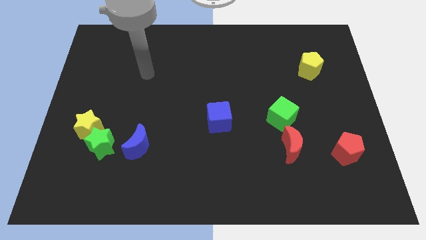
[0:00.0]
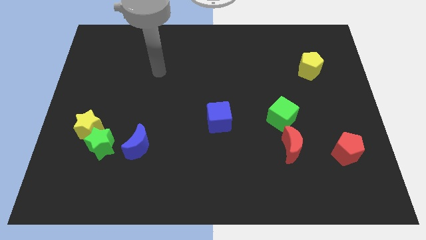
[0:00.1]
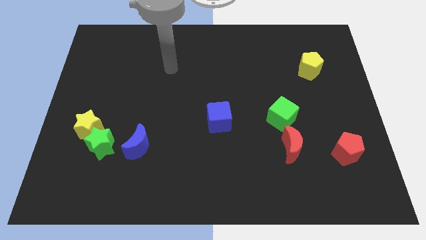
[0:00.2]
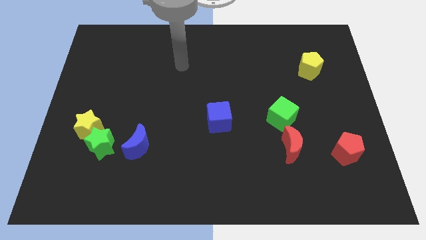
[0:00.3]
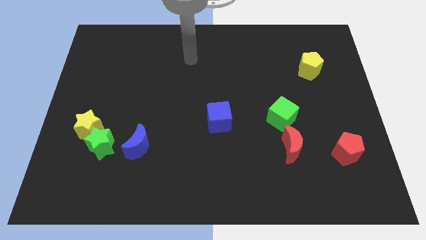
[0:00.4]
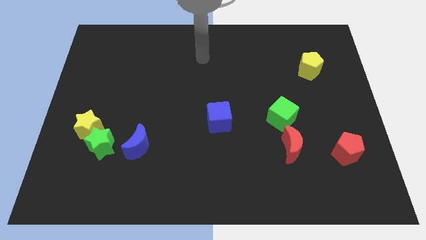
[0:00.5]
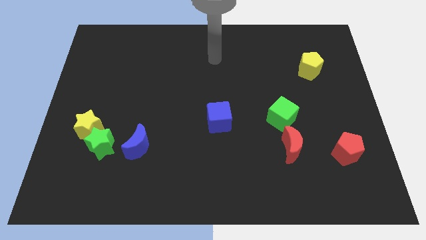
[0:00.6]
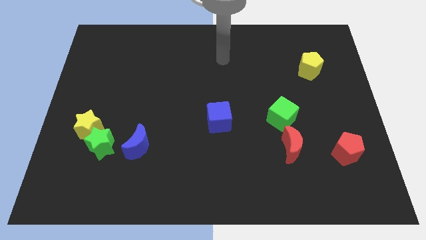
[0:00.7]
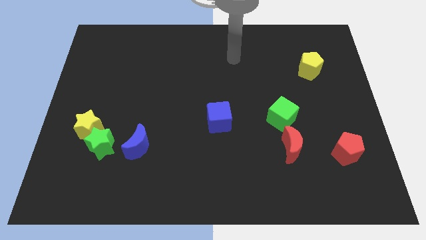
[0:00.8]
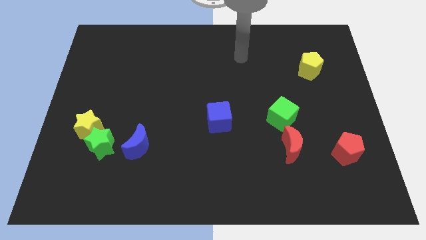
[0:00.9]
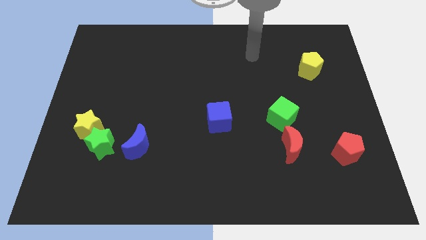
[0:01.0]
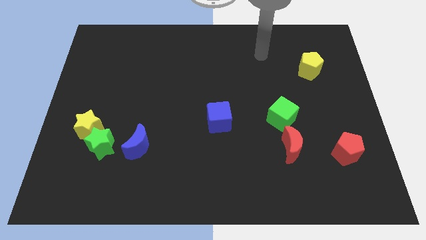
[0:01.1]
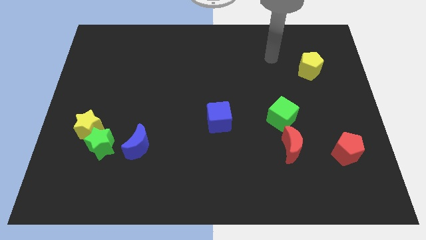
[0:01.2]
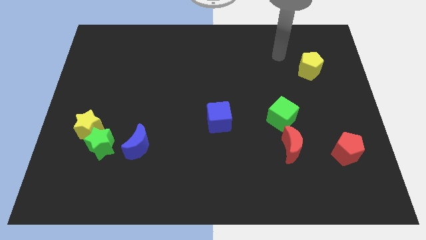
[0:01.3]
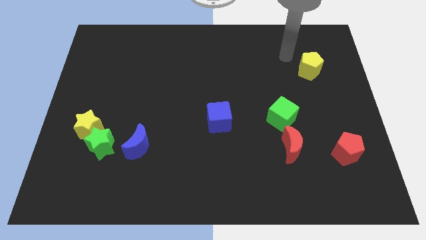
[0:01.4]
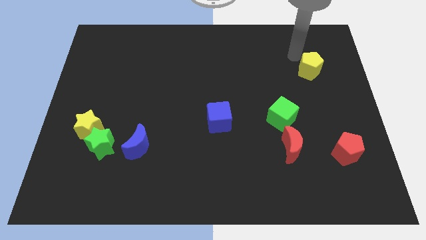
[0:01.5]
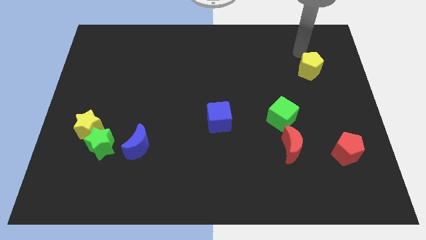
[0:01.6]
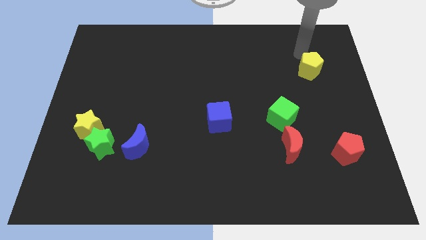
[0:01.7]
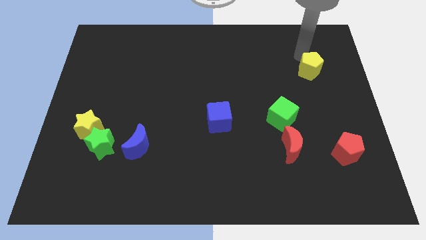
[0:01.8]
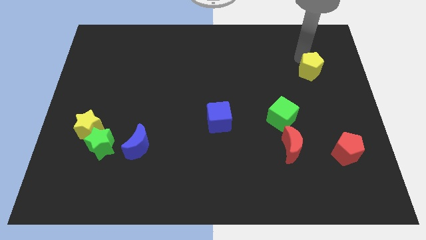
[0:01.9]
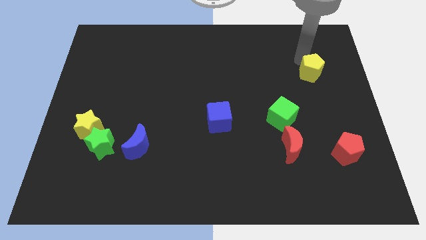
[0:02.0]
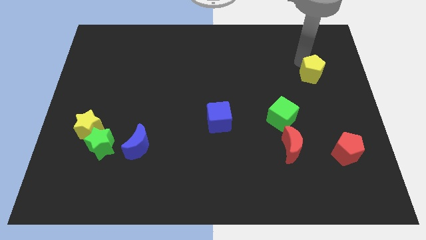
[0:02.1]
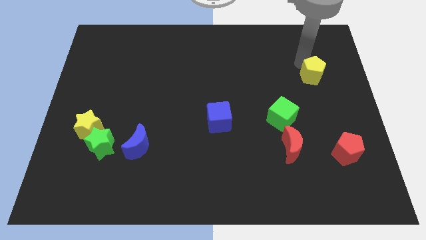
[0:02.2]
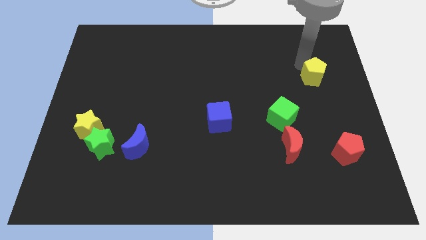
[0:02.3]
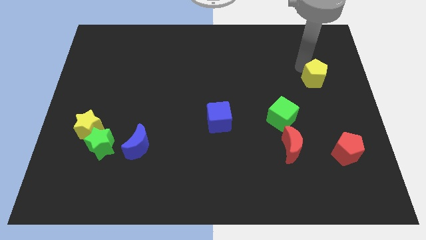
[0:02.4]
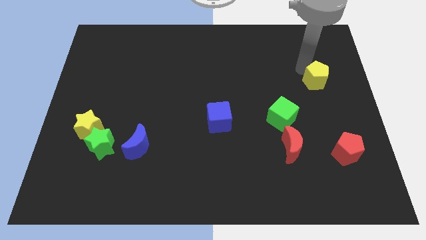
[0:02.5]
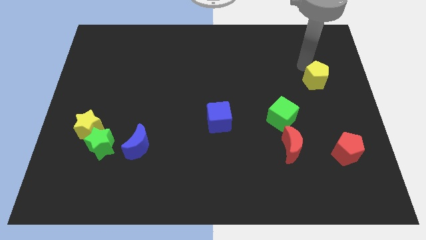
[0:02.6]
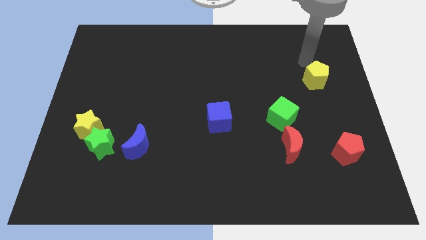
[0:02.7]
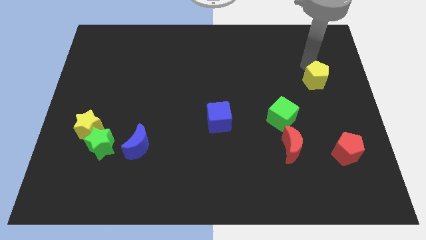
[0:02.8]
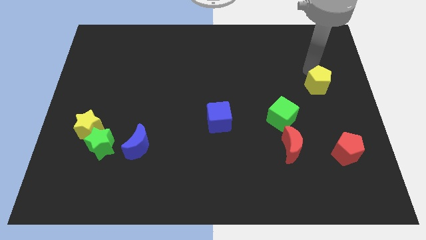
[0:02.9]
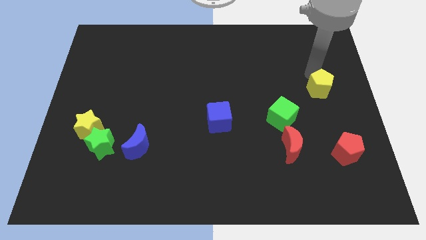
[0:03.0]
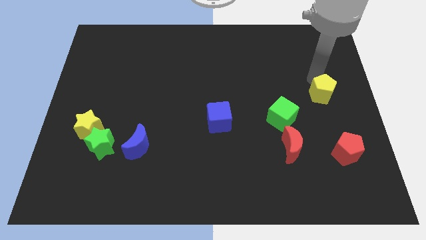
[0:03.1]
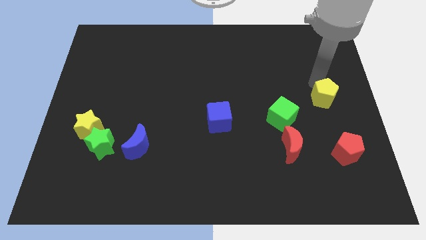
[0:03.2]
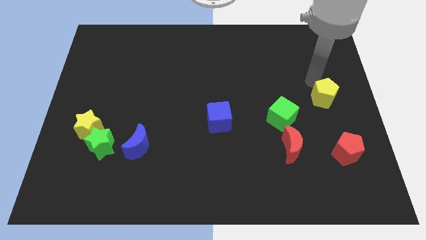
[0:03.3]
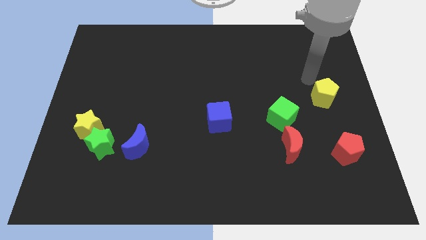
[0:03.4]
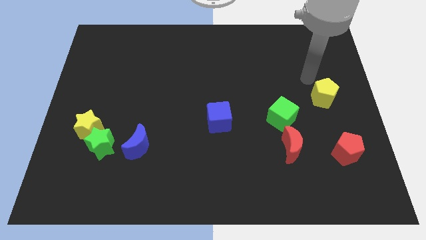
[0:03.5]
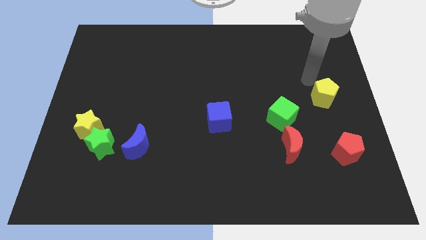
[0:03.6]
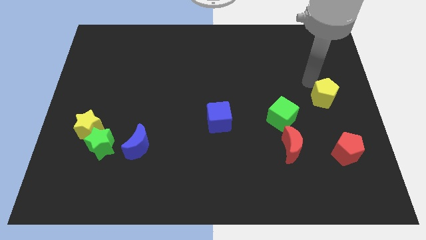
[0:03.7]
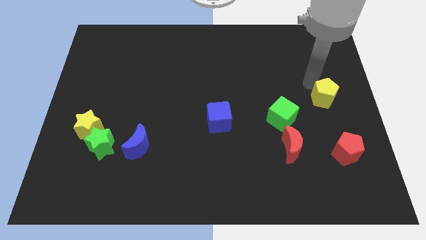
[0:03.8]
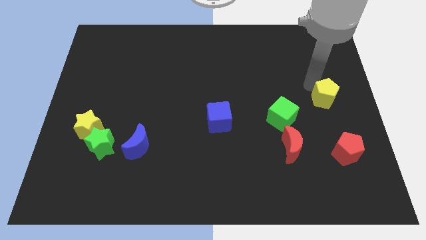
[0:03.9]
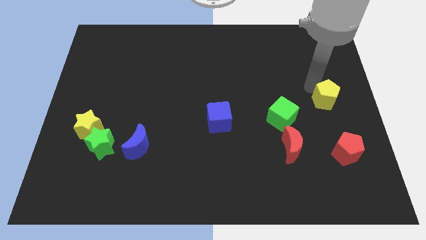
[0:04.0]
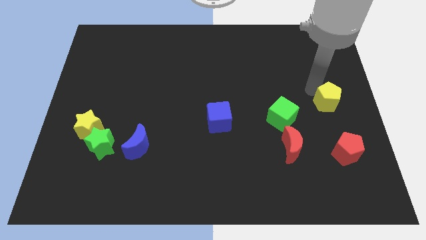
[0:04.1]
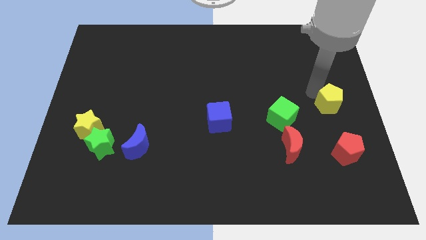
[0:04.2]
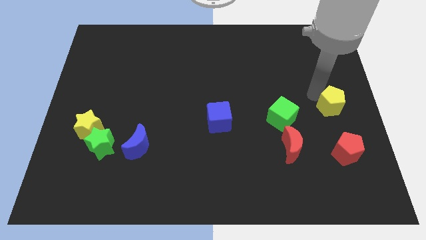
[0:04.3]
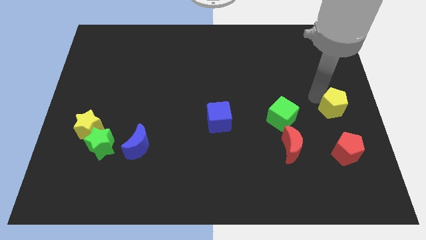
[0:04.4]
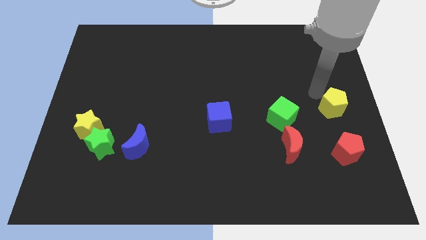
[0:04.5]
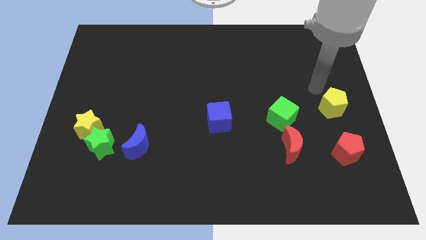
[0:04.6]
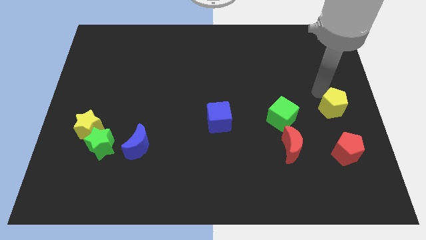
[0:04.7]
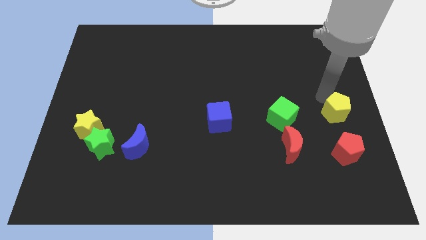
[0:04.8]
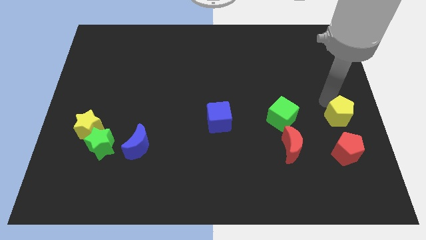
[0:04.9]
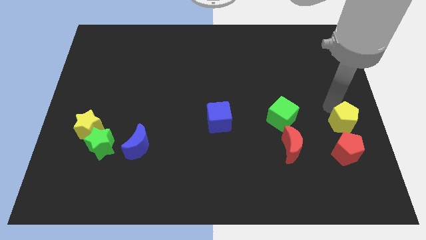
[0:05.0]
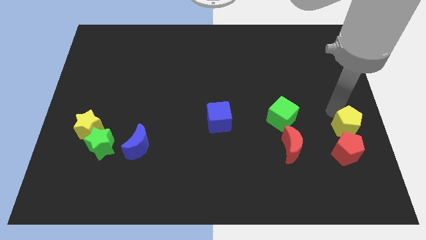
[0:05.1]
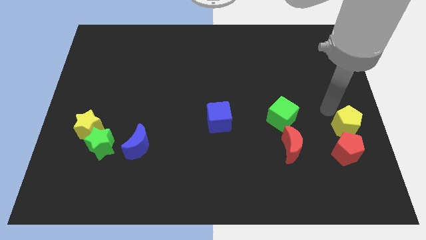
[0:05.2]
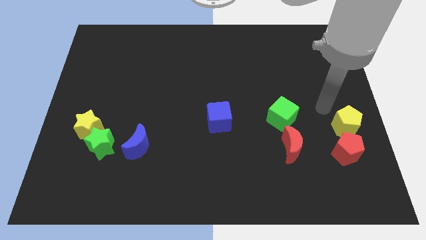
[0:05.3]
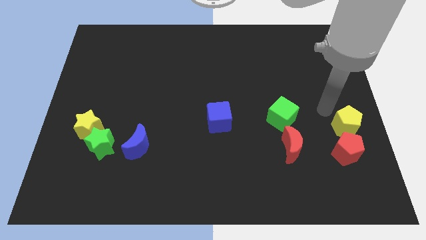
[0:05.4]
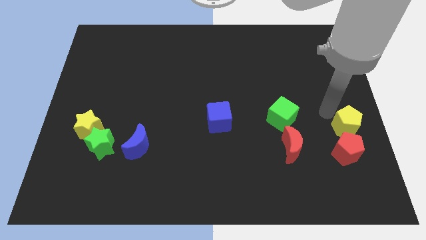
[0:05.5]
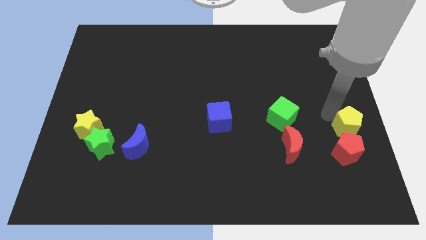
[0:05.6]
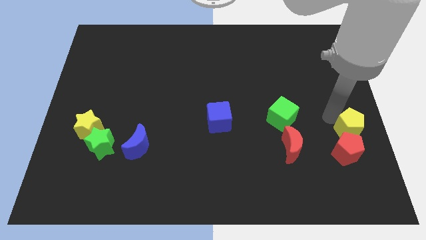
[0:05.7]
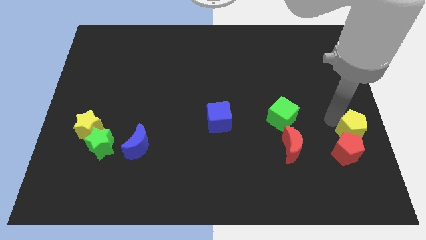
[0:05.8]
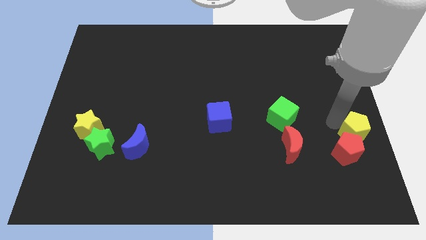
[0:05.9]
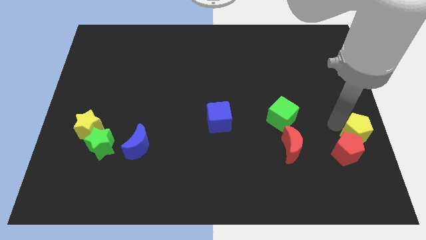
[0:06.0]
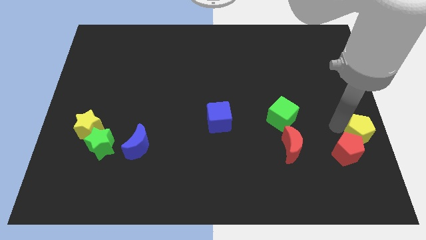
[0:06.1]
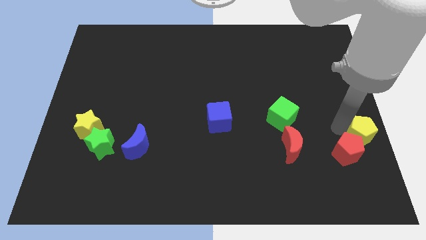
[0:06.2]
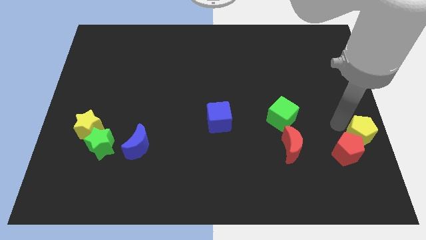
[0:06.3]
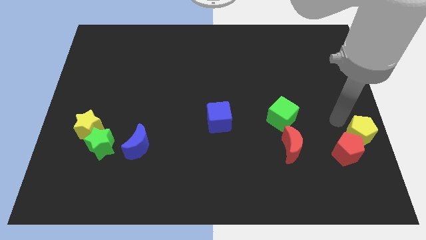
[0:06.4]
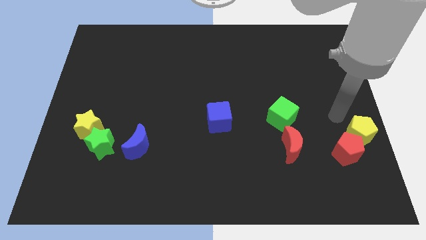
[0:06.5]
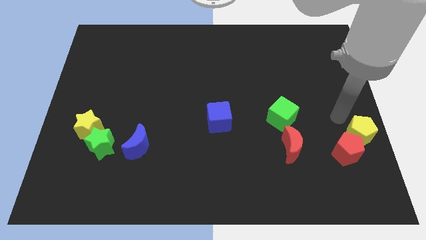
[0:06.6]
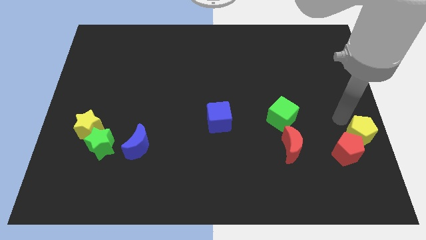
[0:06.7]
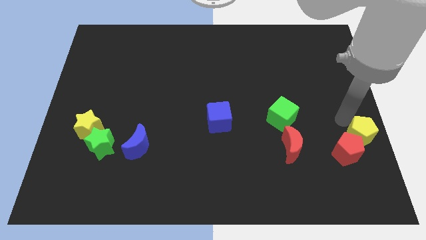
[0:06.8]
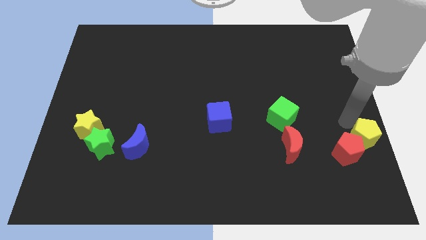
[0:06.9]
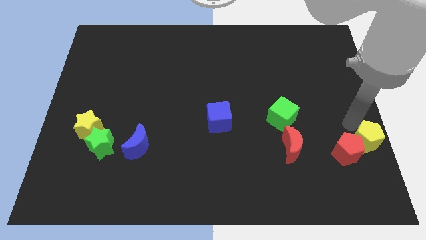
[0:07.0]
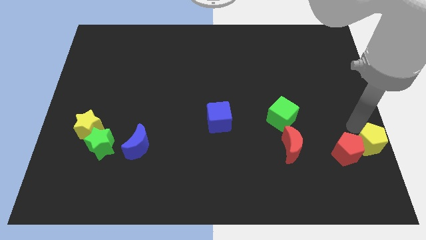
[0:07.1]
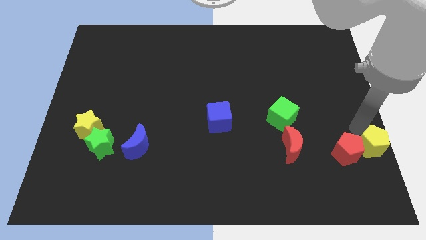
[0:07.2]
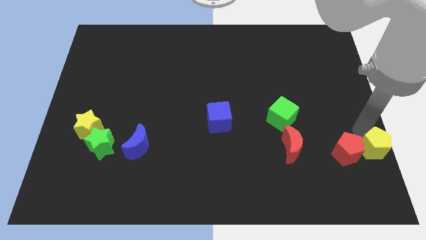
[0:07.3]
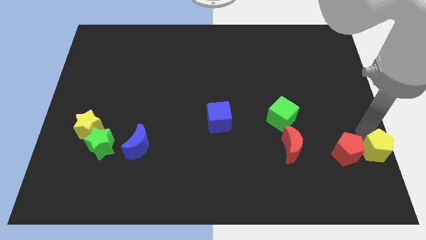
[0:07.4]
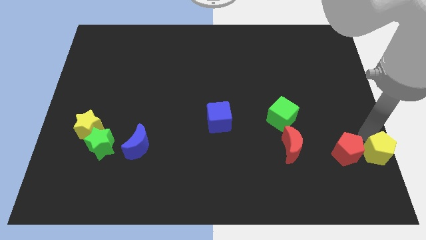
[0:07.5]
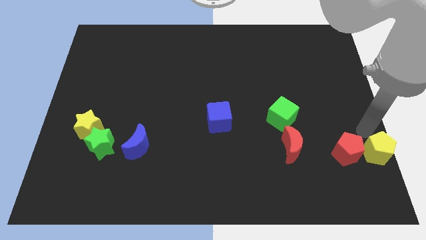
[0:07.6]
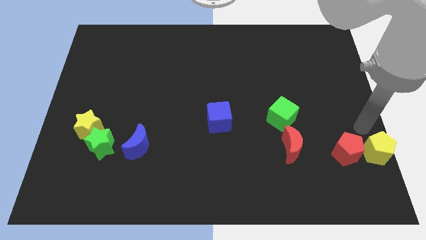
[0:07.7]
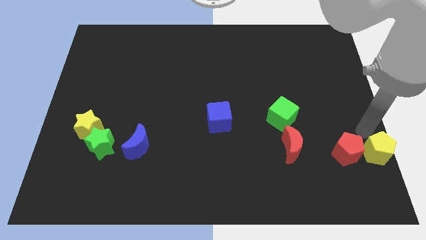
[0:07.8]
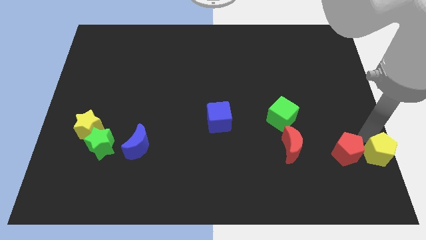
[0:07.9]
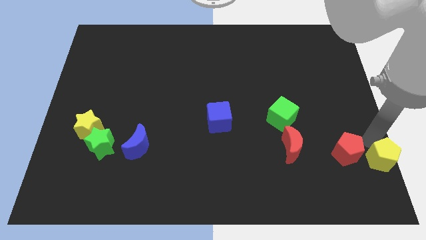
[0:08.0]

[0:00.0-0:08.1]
move the yellow pentagon to the bottom right
